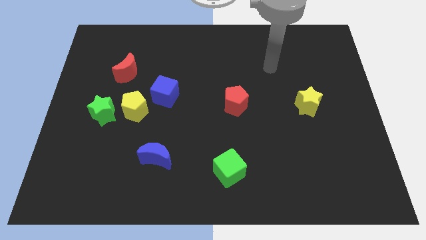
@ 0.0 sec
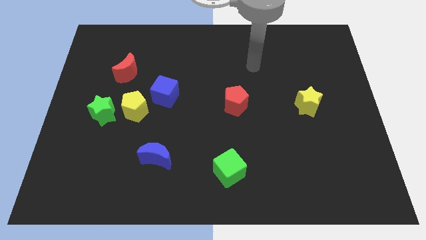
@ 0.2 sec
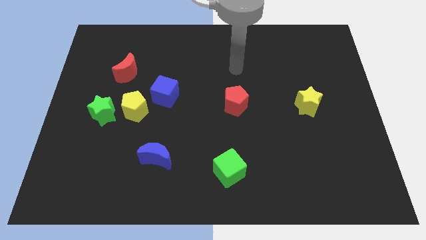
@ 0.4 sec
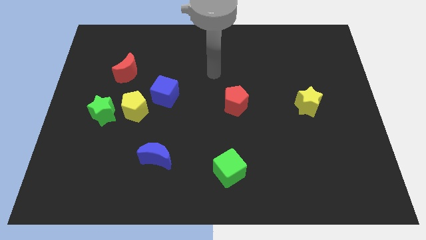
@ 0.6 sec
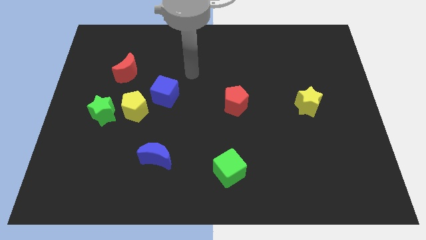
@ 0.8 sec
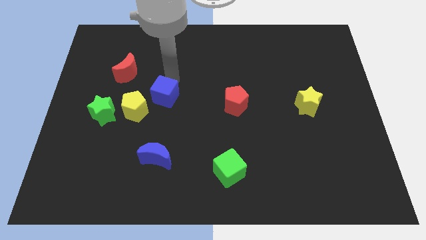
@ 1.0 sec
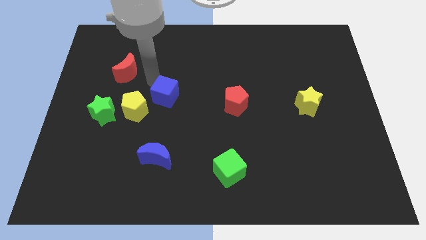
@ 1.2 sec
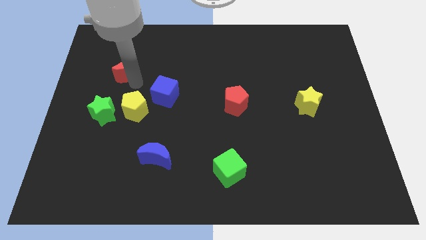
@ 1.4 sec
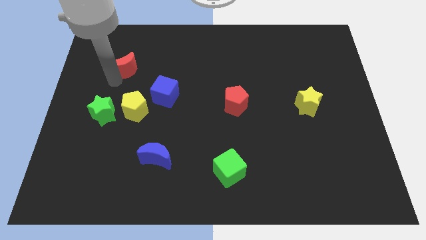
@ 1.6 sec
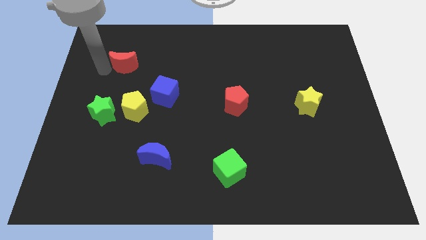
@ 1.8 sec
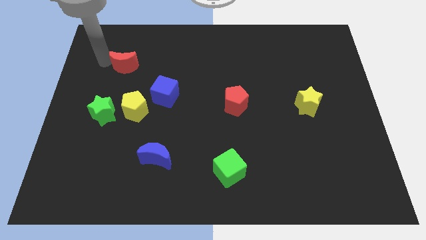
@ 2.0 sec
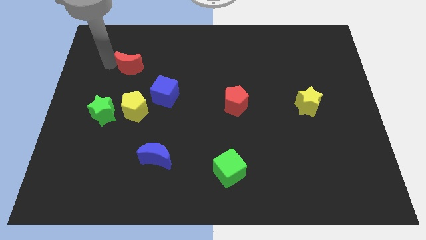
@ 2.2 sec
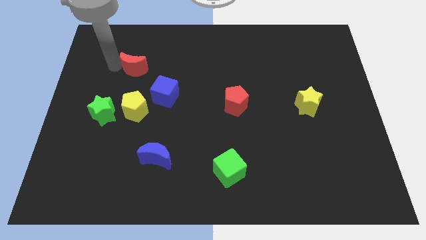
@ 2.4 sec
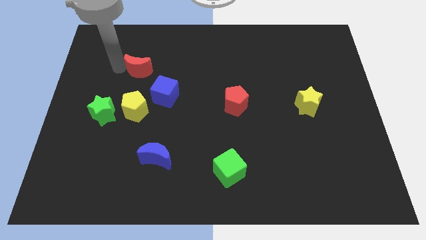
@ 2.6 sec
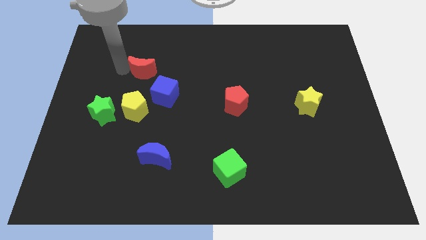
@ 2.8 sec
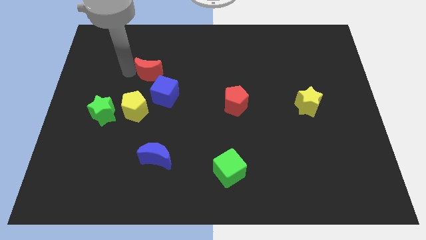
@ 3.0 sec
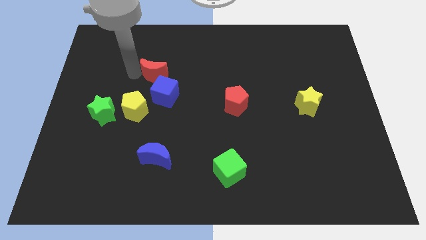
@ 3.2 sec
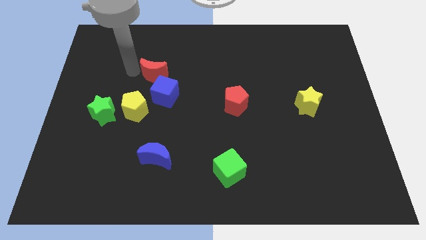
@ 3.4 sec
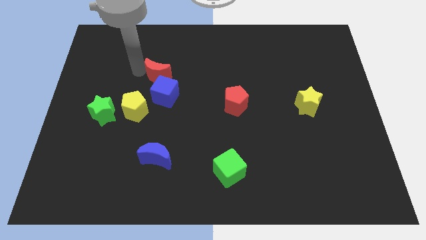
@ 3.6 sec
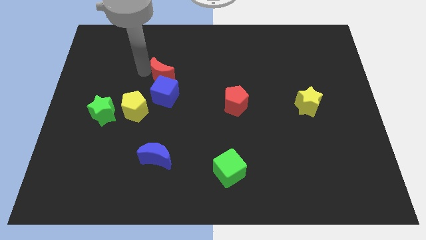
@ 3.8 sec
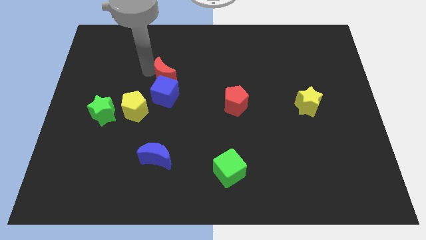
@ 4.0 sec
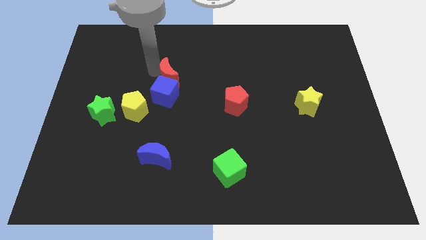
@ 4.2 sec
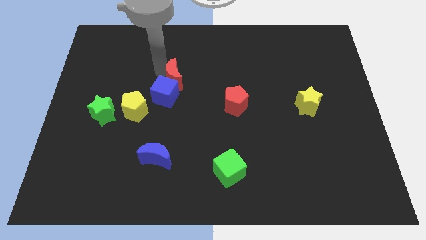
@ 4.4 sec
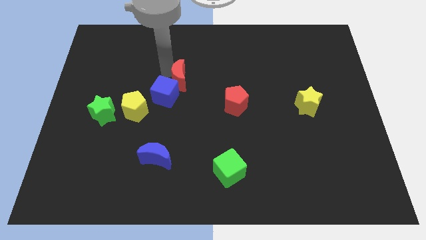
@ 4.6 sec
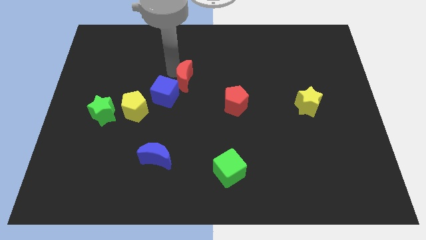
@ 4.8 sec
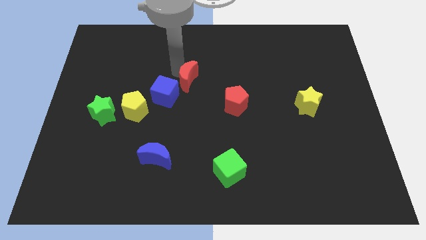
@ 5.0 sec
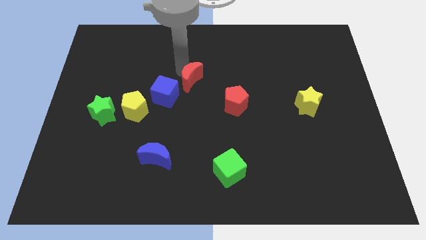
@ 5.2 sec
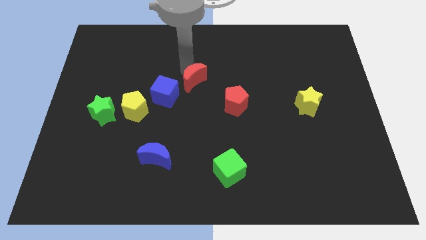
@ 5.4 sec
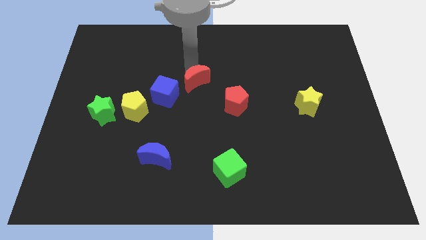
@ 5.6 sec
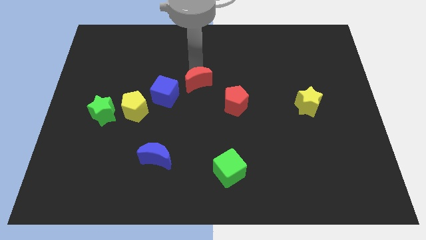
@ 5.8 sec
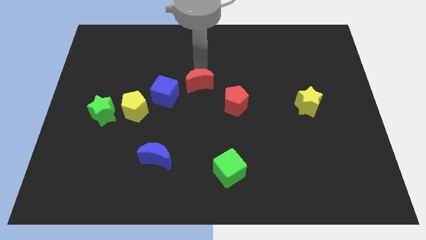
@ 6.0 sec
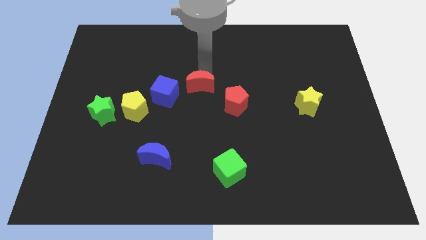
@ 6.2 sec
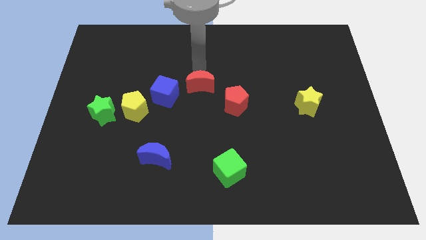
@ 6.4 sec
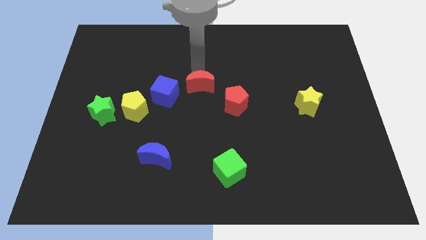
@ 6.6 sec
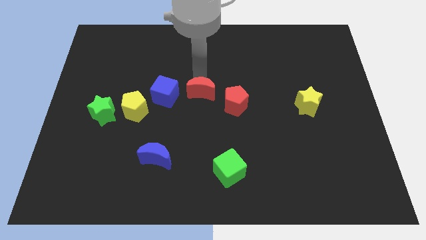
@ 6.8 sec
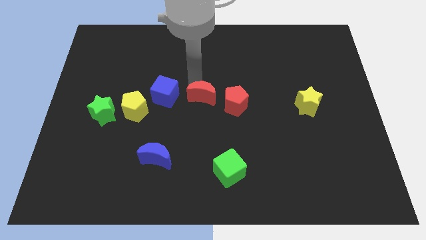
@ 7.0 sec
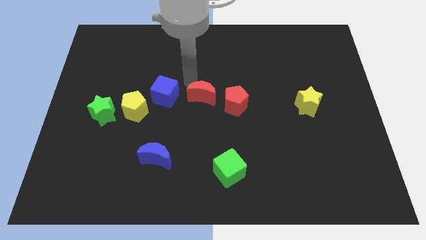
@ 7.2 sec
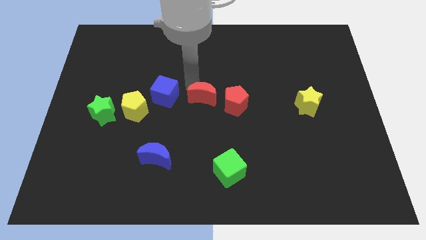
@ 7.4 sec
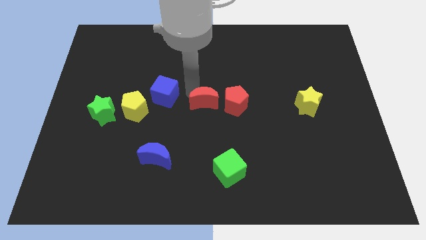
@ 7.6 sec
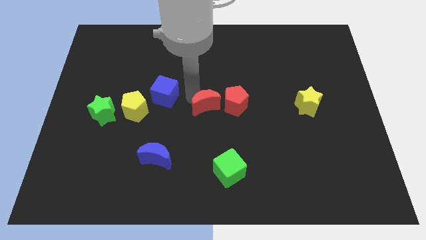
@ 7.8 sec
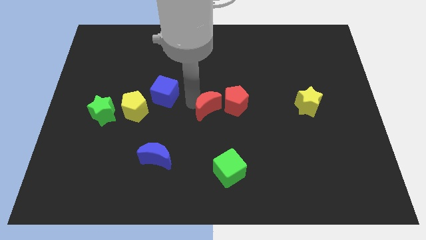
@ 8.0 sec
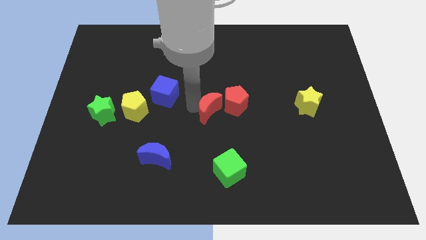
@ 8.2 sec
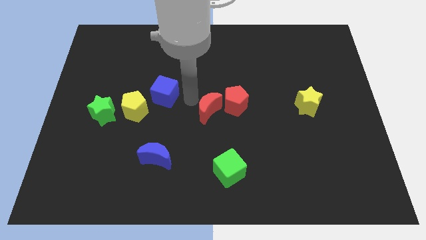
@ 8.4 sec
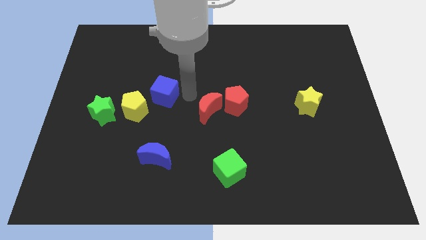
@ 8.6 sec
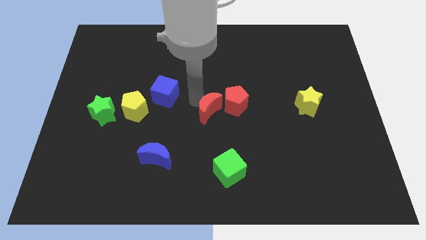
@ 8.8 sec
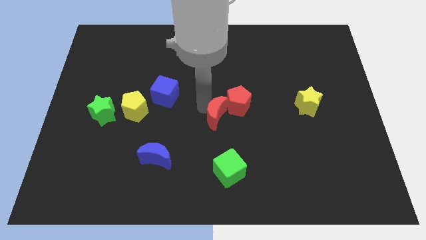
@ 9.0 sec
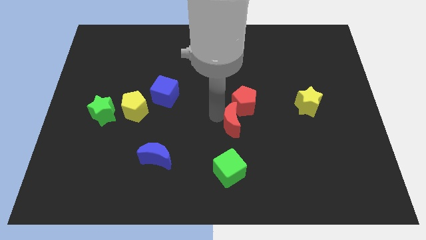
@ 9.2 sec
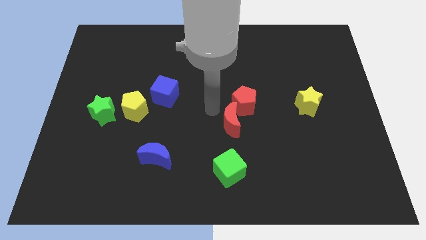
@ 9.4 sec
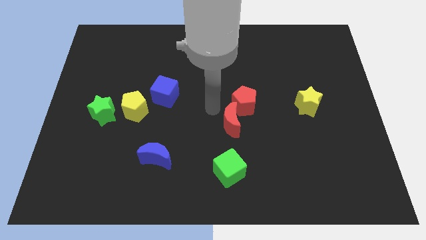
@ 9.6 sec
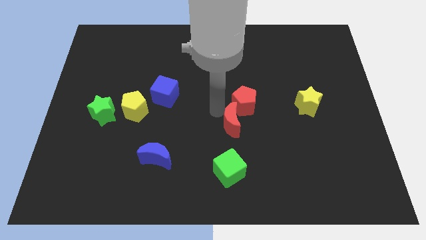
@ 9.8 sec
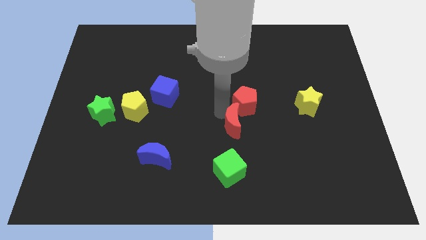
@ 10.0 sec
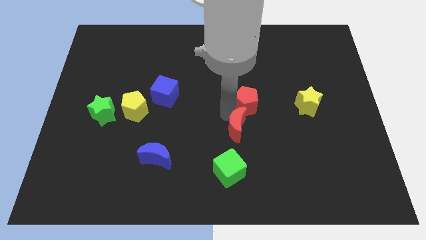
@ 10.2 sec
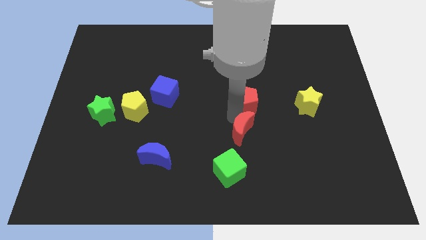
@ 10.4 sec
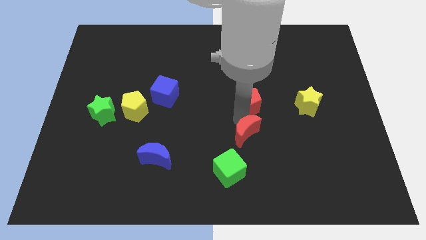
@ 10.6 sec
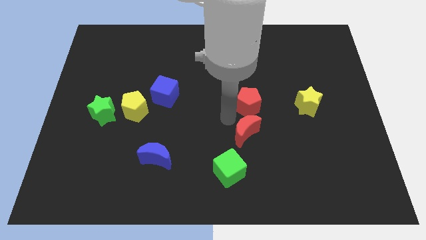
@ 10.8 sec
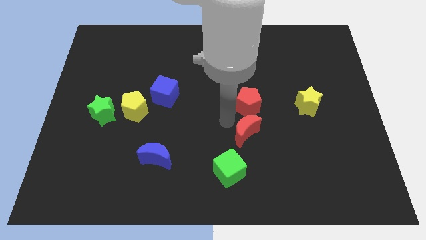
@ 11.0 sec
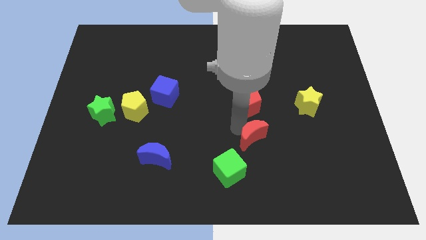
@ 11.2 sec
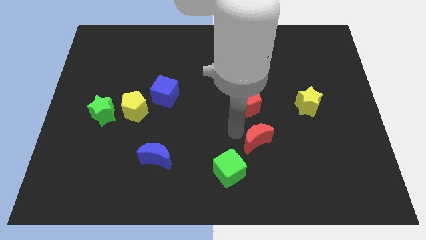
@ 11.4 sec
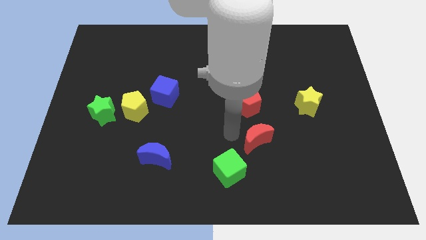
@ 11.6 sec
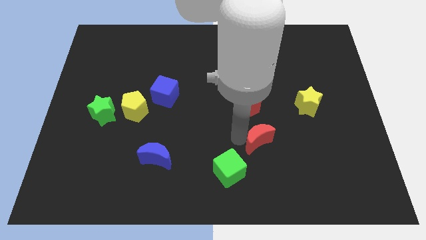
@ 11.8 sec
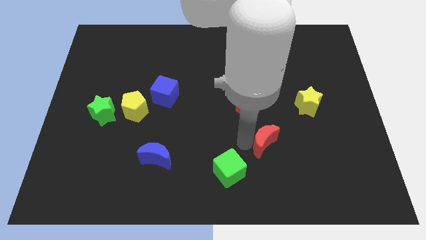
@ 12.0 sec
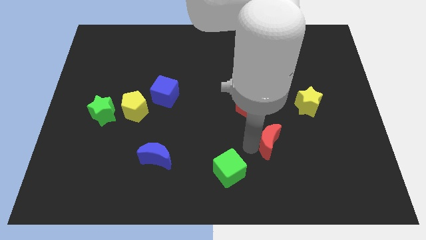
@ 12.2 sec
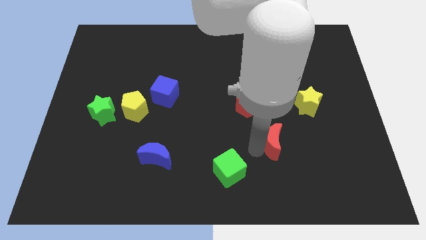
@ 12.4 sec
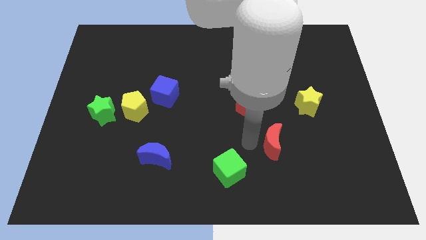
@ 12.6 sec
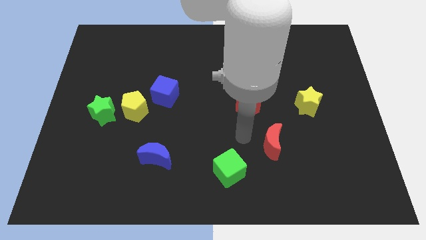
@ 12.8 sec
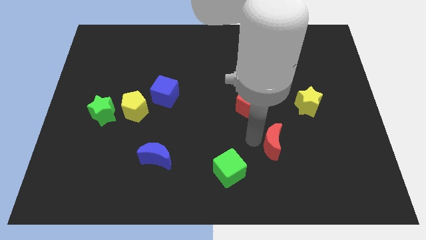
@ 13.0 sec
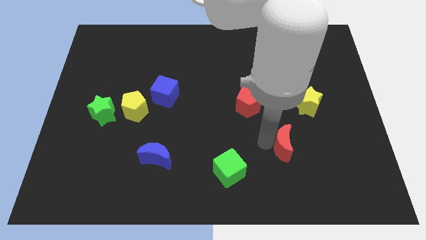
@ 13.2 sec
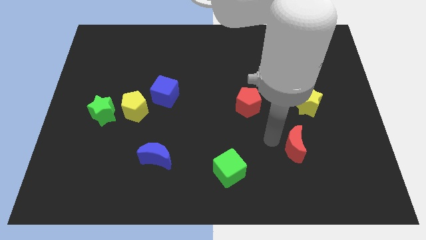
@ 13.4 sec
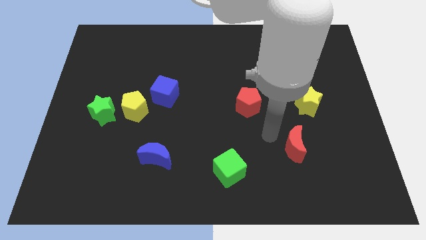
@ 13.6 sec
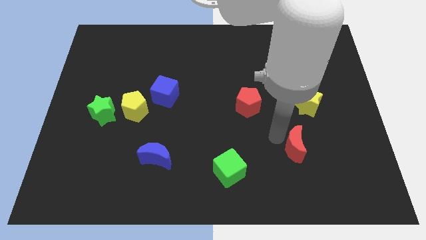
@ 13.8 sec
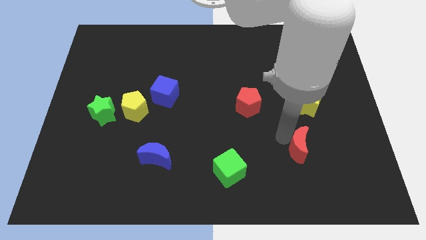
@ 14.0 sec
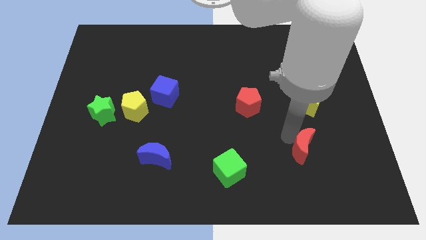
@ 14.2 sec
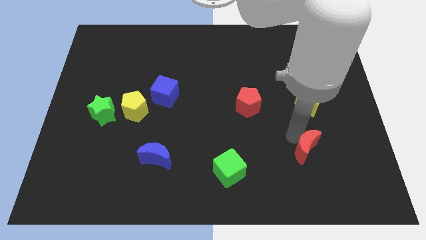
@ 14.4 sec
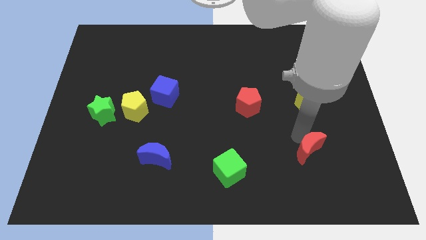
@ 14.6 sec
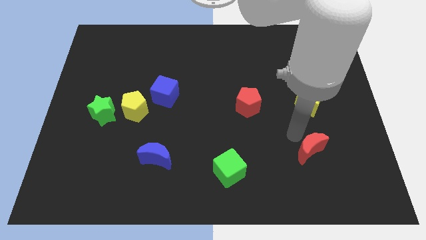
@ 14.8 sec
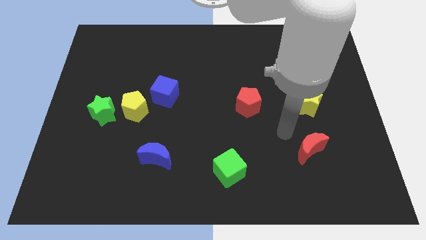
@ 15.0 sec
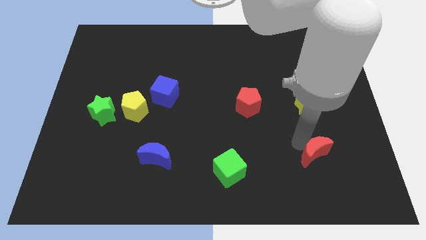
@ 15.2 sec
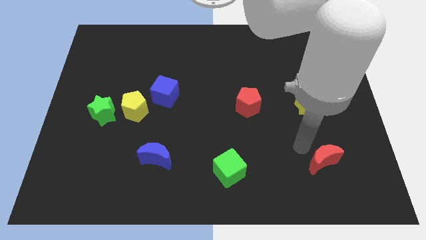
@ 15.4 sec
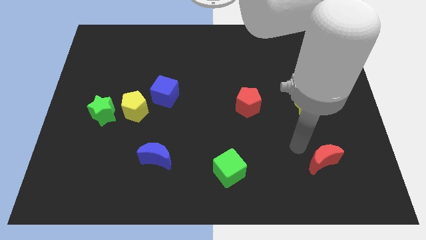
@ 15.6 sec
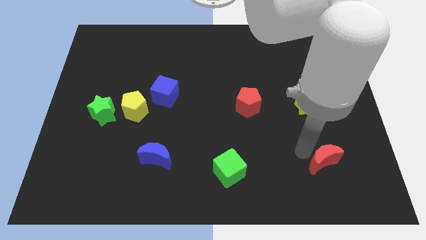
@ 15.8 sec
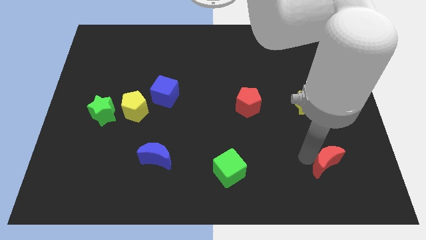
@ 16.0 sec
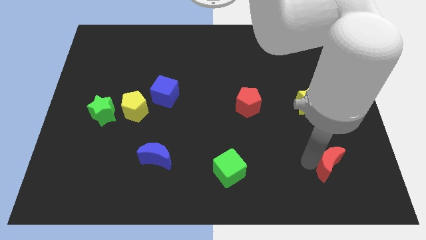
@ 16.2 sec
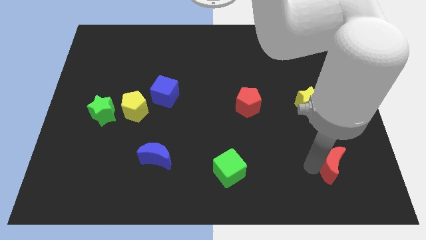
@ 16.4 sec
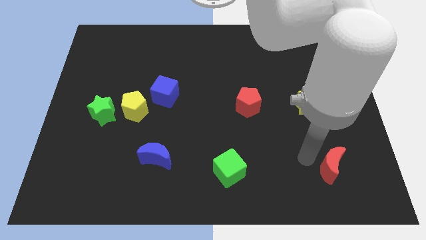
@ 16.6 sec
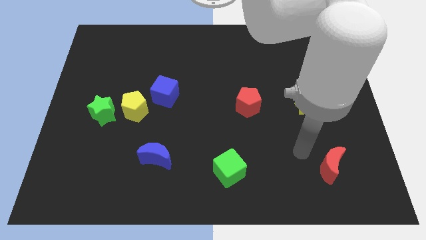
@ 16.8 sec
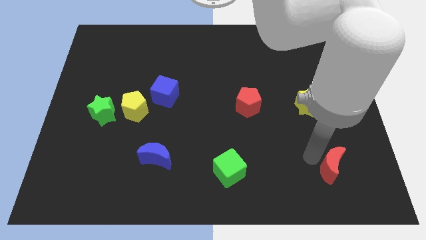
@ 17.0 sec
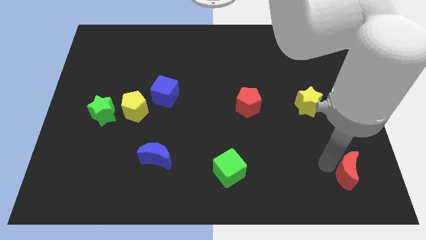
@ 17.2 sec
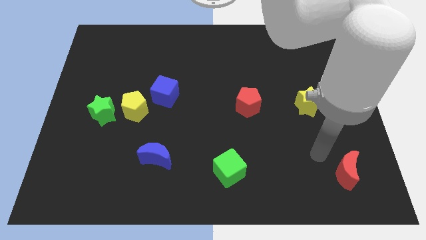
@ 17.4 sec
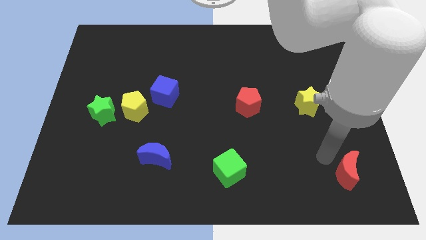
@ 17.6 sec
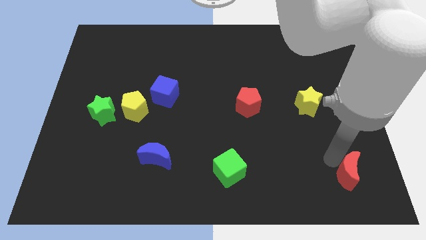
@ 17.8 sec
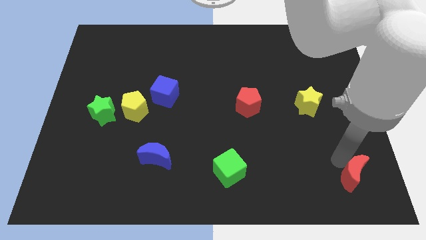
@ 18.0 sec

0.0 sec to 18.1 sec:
push the red moon to the lower right corner
